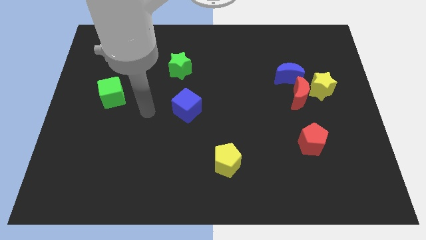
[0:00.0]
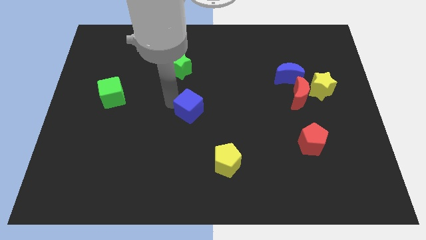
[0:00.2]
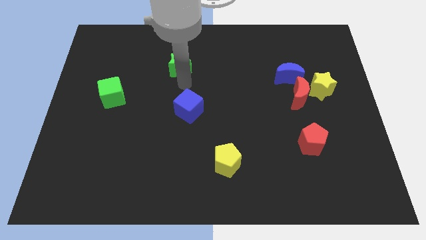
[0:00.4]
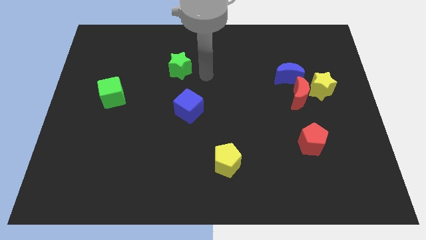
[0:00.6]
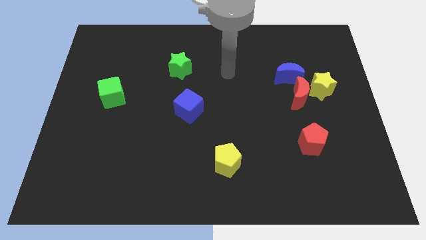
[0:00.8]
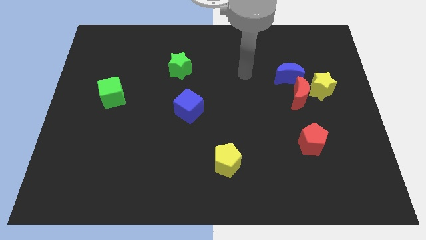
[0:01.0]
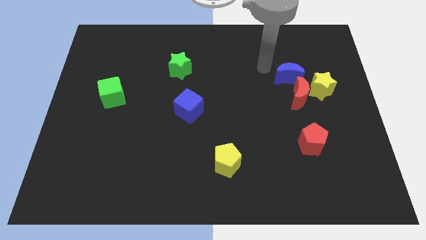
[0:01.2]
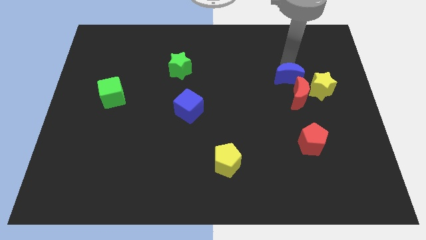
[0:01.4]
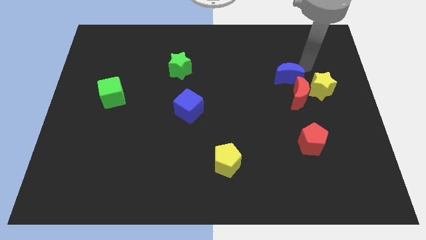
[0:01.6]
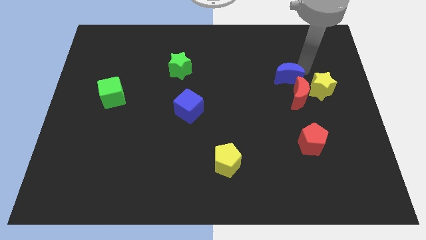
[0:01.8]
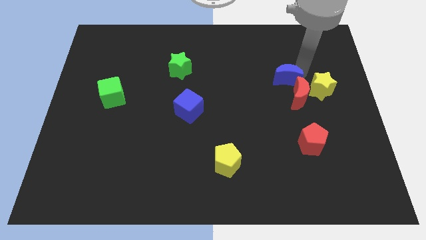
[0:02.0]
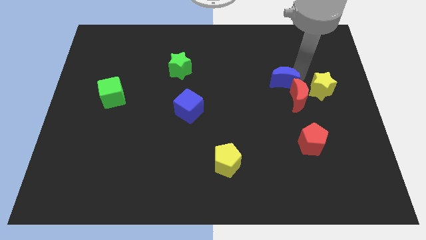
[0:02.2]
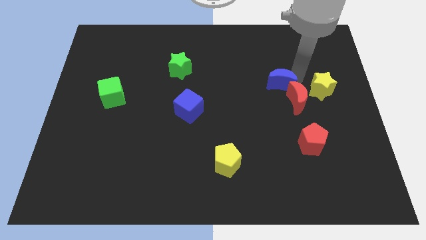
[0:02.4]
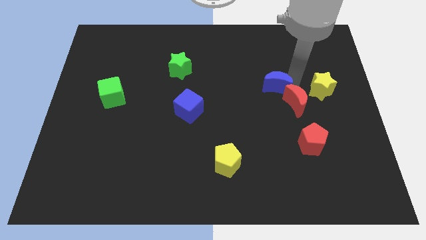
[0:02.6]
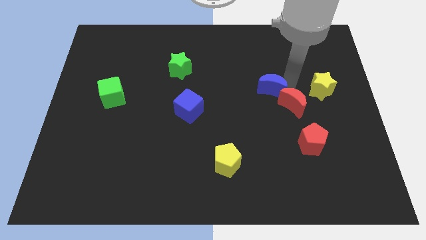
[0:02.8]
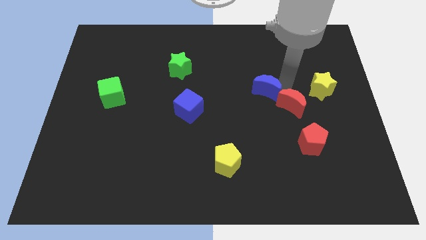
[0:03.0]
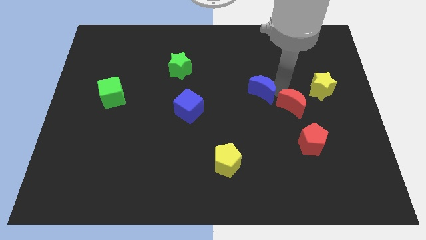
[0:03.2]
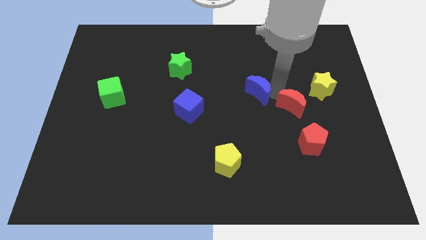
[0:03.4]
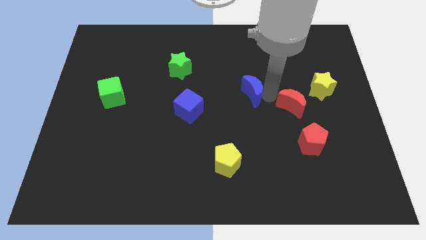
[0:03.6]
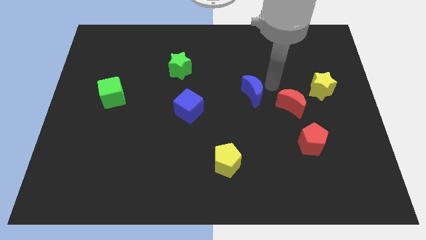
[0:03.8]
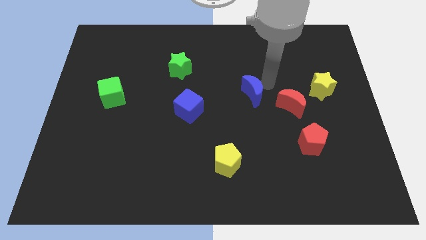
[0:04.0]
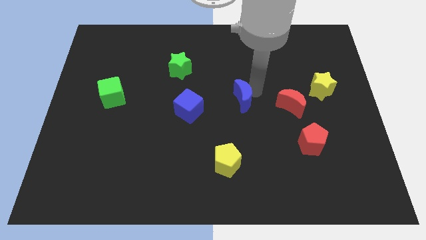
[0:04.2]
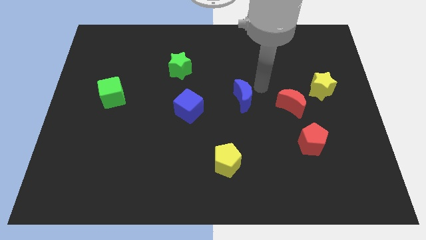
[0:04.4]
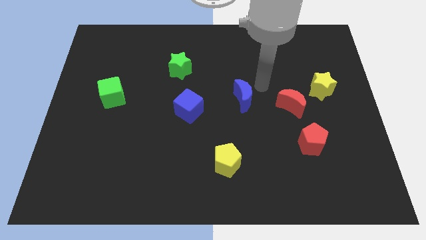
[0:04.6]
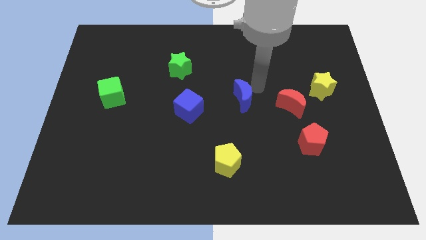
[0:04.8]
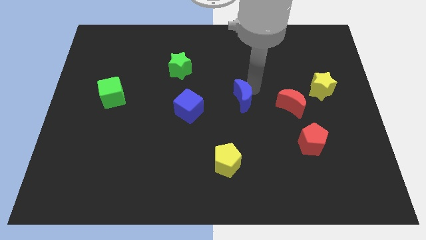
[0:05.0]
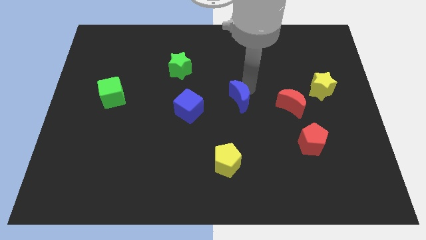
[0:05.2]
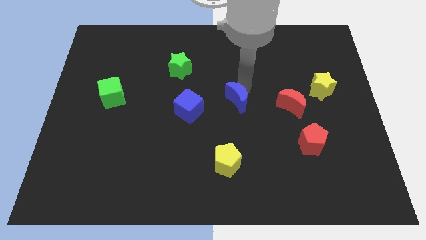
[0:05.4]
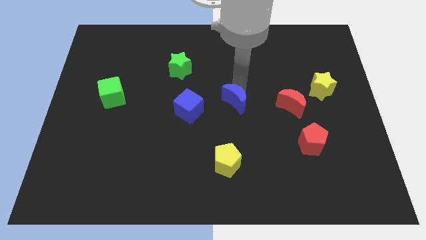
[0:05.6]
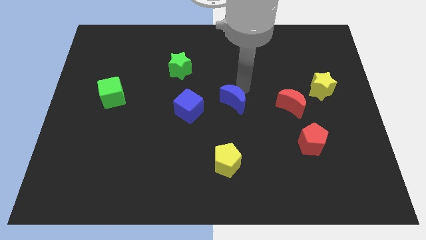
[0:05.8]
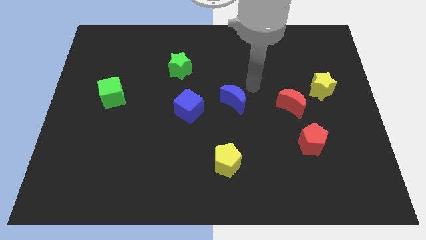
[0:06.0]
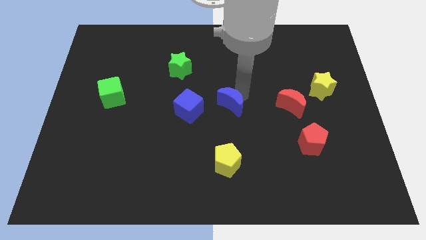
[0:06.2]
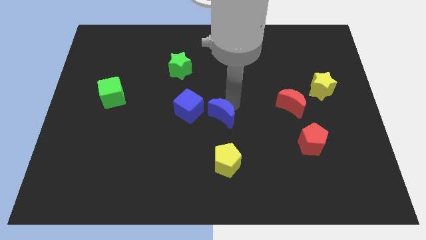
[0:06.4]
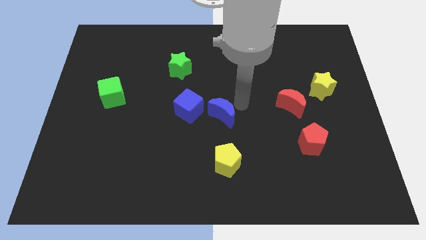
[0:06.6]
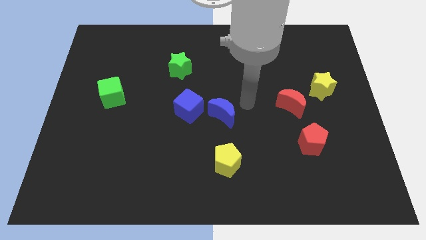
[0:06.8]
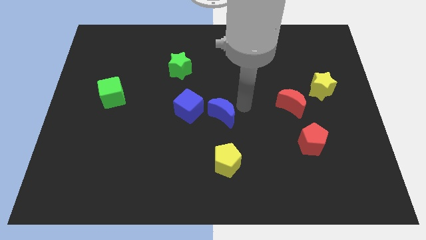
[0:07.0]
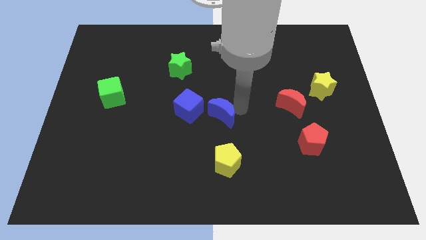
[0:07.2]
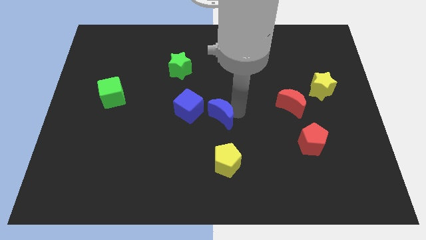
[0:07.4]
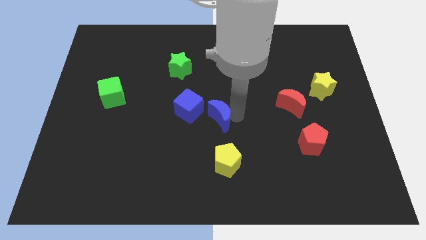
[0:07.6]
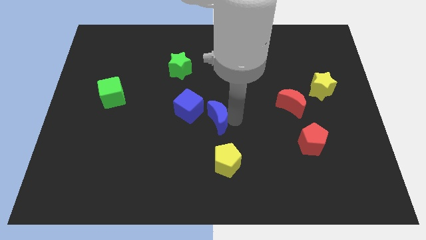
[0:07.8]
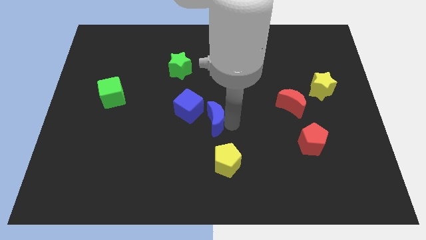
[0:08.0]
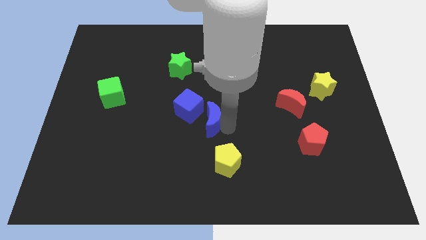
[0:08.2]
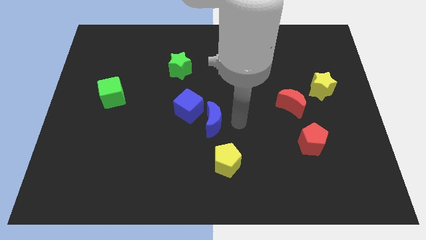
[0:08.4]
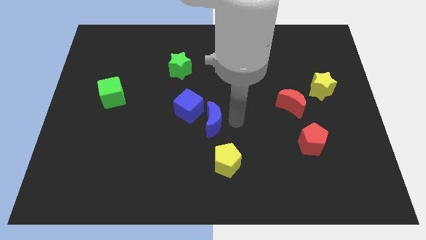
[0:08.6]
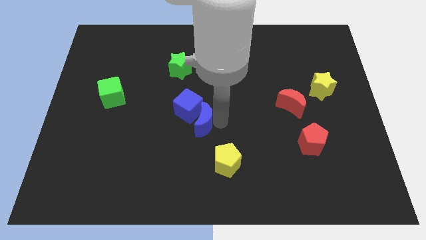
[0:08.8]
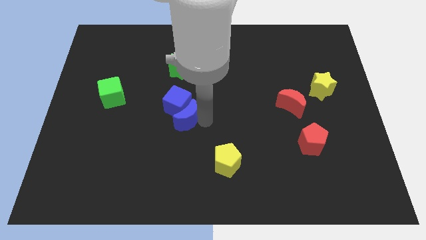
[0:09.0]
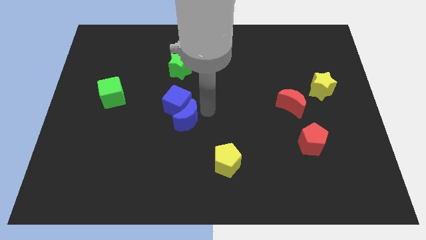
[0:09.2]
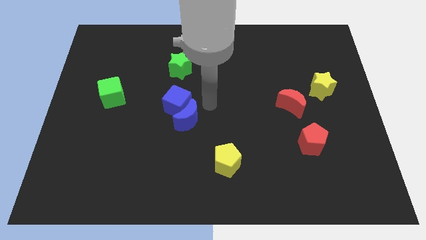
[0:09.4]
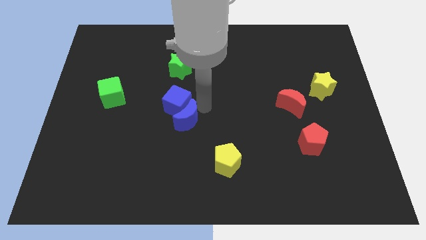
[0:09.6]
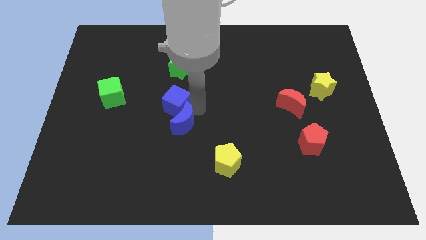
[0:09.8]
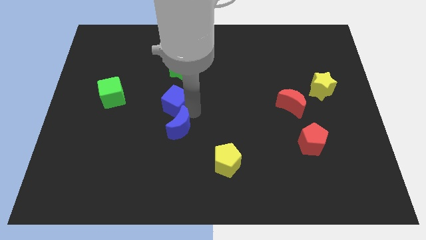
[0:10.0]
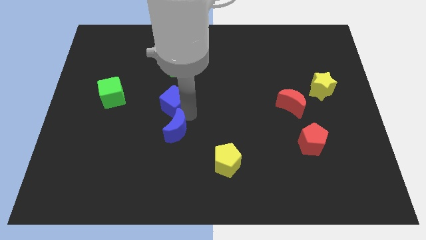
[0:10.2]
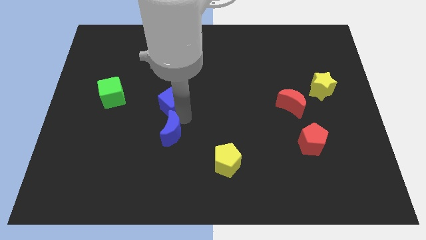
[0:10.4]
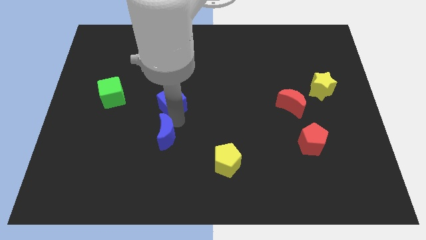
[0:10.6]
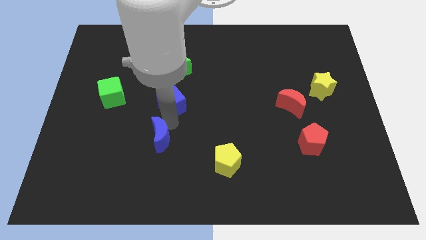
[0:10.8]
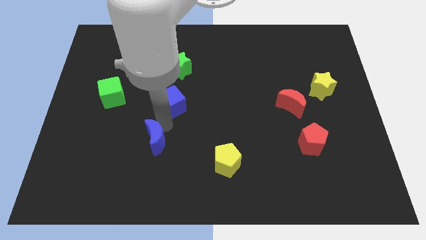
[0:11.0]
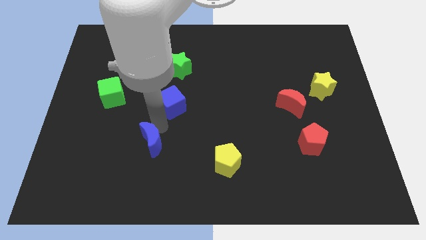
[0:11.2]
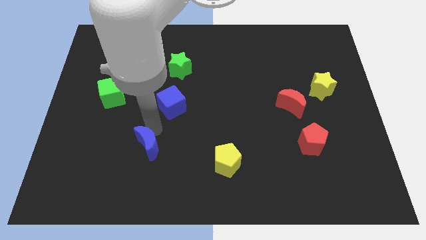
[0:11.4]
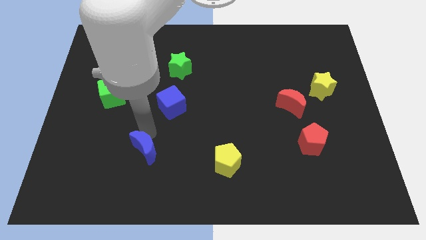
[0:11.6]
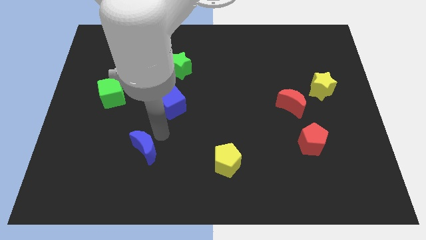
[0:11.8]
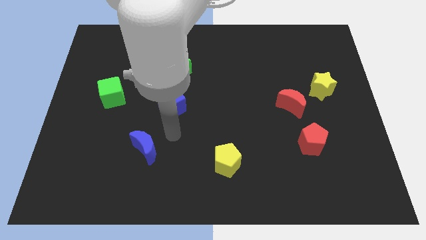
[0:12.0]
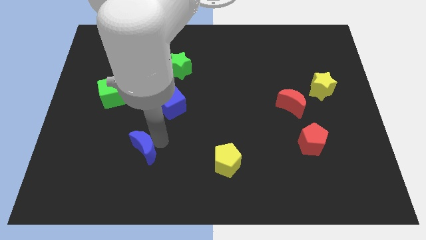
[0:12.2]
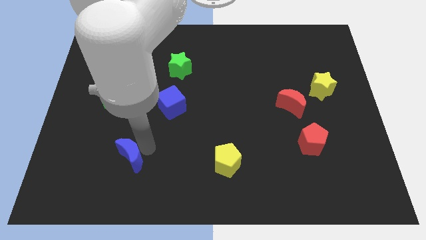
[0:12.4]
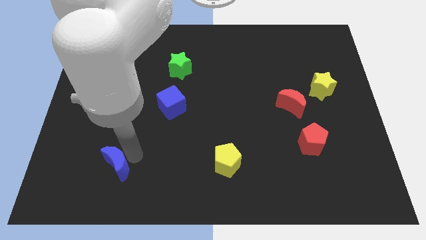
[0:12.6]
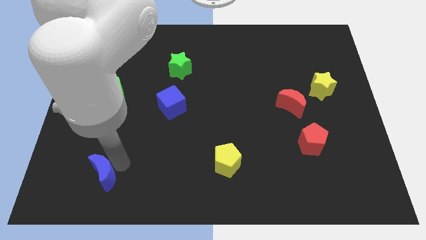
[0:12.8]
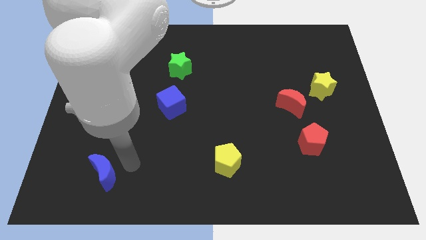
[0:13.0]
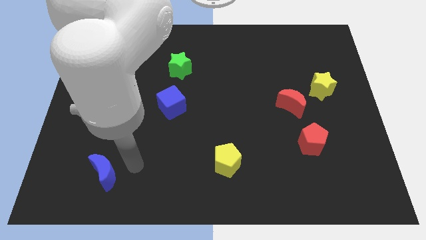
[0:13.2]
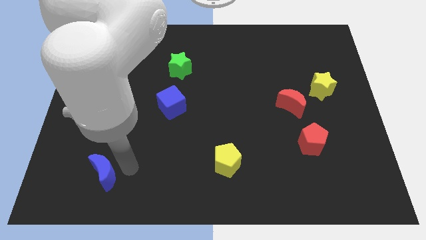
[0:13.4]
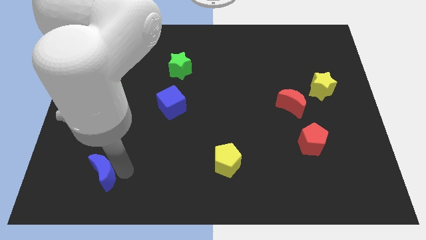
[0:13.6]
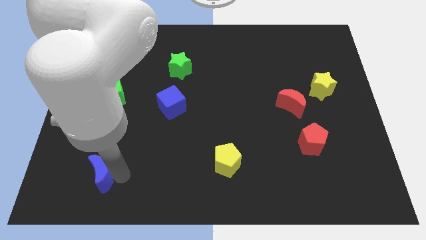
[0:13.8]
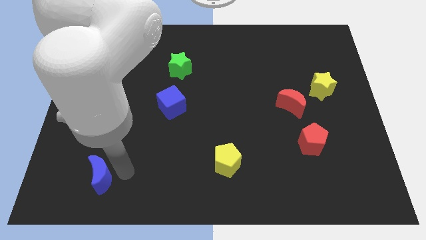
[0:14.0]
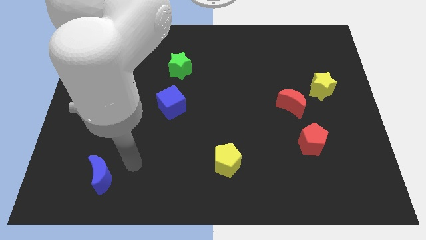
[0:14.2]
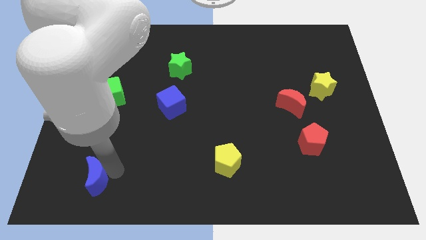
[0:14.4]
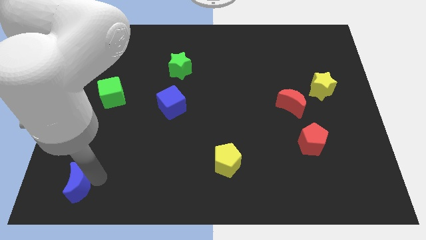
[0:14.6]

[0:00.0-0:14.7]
move the blue moon to the lower left corner
